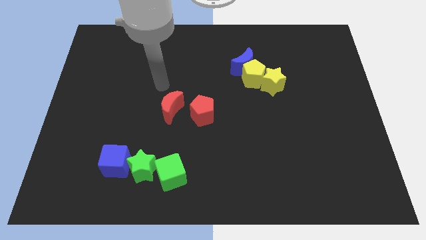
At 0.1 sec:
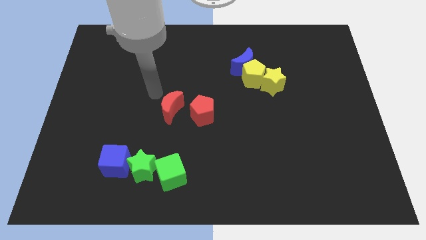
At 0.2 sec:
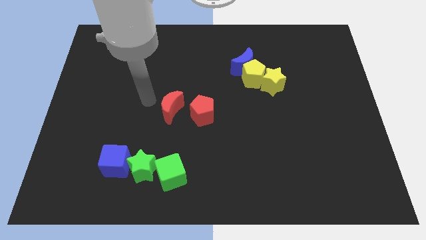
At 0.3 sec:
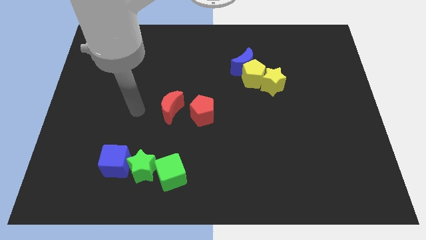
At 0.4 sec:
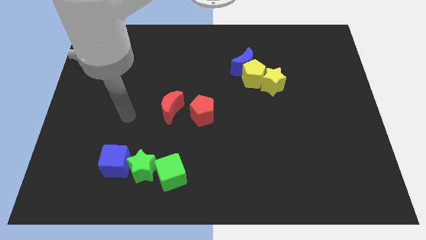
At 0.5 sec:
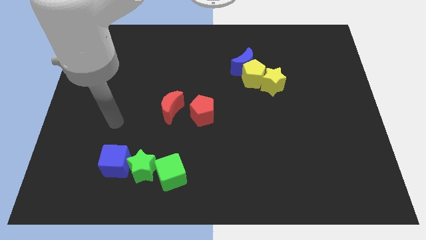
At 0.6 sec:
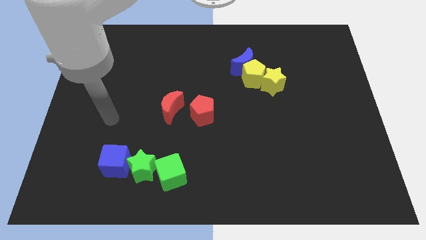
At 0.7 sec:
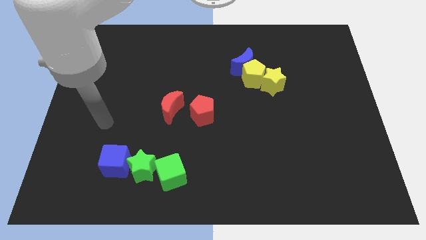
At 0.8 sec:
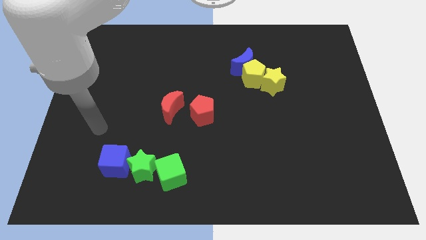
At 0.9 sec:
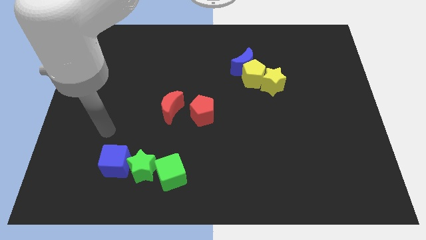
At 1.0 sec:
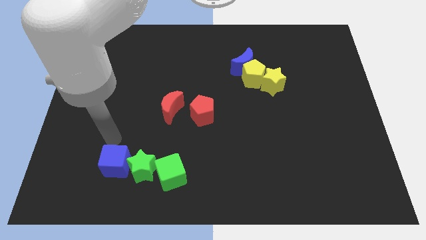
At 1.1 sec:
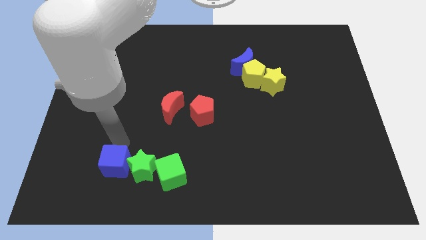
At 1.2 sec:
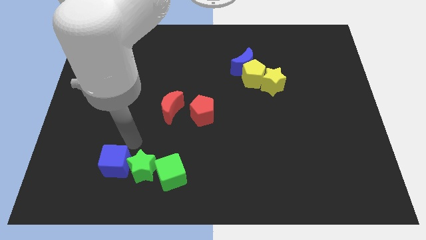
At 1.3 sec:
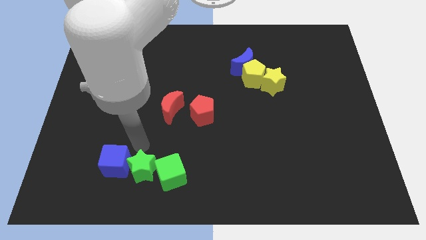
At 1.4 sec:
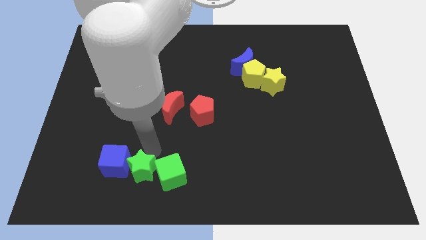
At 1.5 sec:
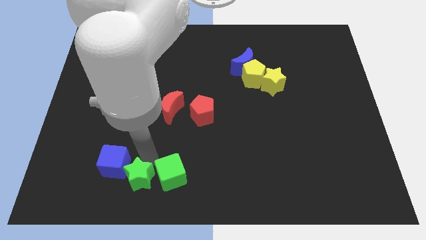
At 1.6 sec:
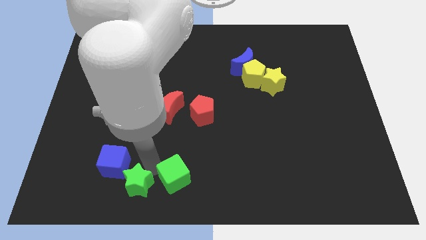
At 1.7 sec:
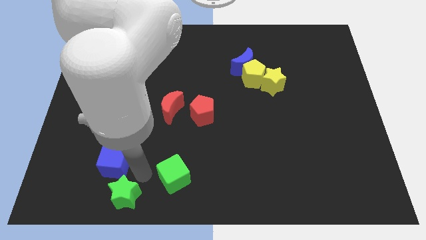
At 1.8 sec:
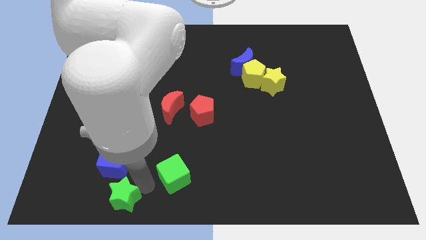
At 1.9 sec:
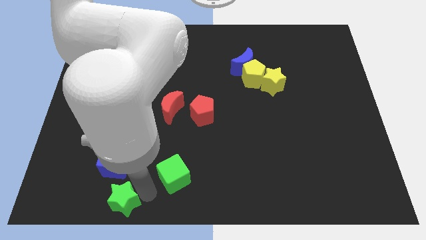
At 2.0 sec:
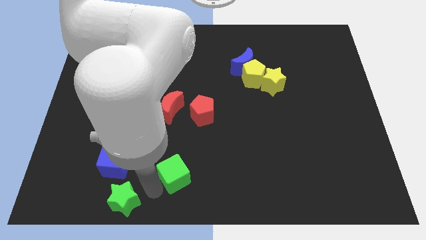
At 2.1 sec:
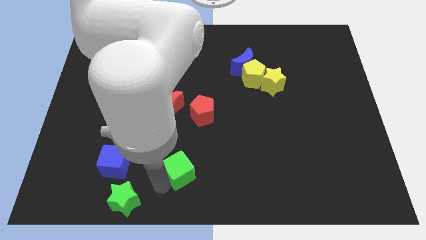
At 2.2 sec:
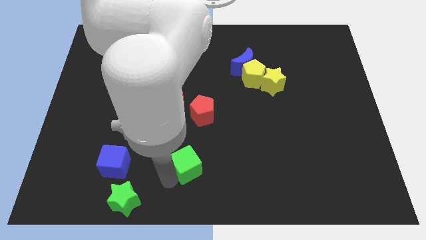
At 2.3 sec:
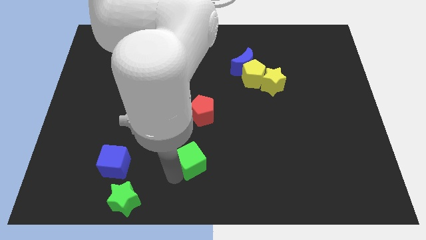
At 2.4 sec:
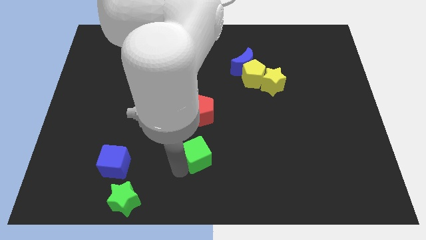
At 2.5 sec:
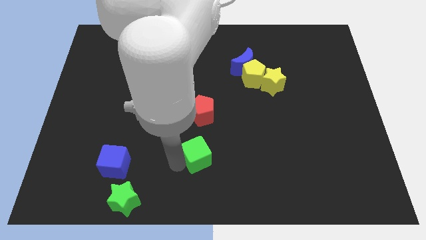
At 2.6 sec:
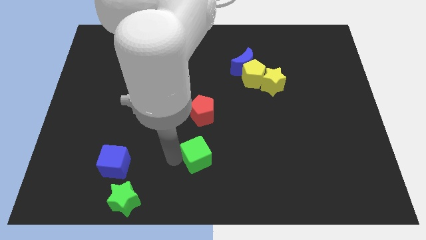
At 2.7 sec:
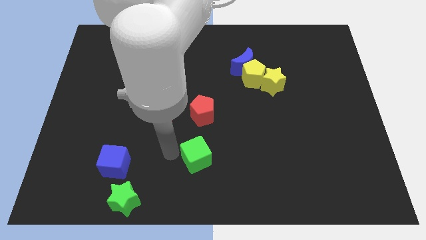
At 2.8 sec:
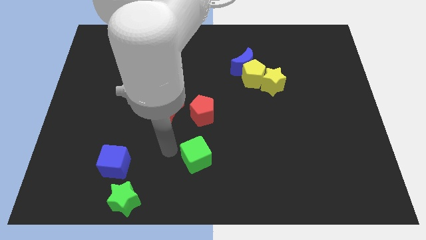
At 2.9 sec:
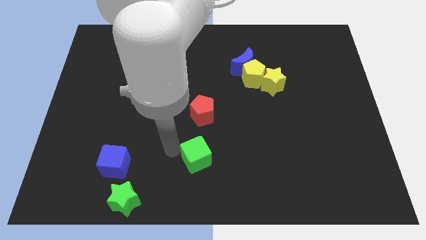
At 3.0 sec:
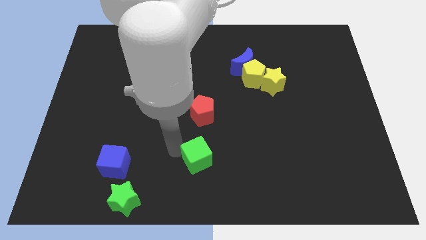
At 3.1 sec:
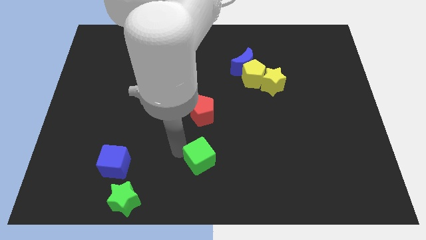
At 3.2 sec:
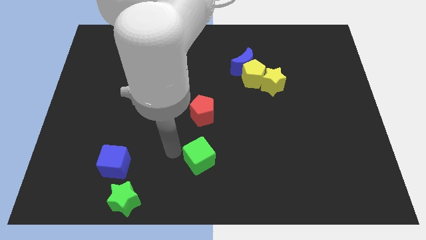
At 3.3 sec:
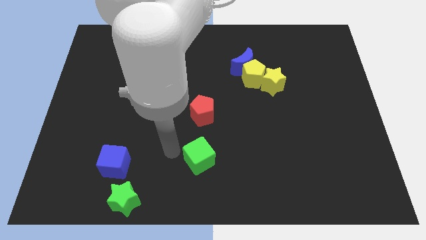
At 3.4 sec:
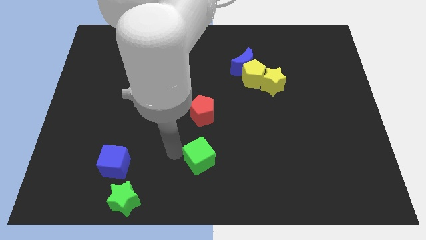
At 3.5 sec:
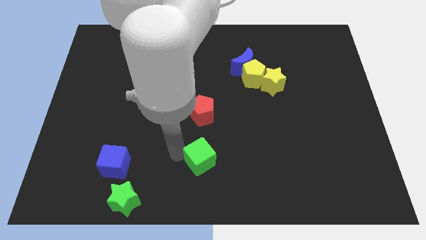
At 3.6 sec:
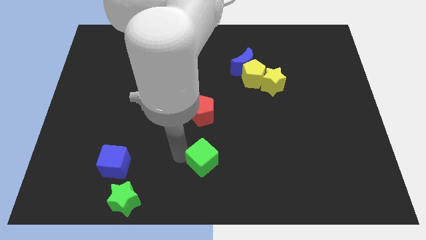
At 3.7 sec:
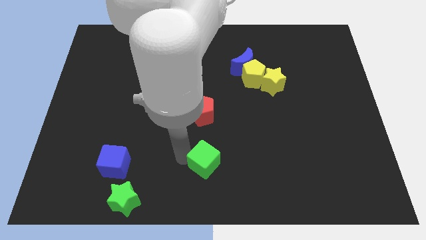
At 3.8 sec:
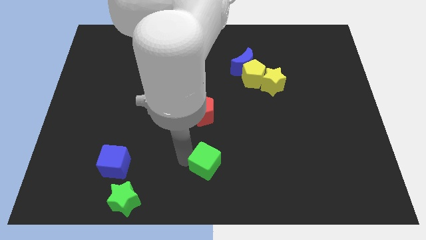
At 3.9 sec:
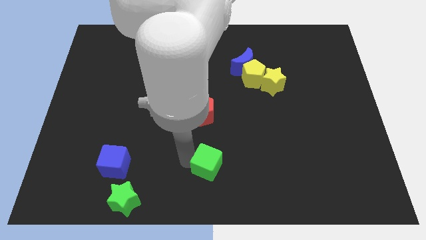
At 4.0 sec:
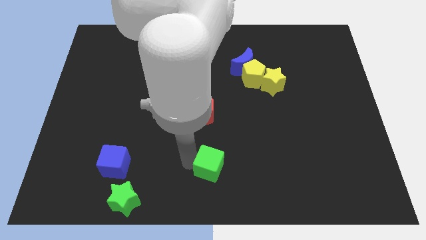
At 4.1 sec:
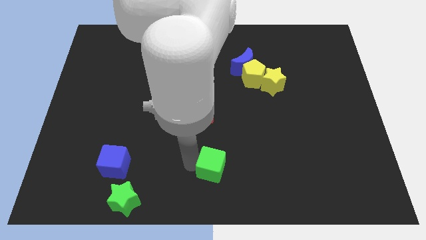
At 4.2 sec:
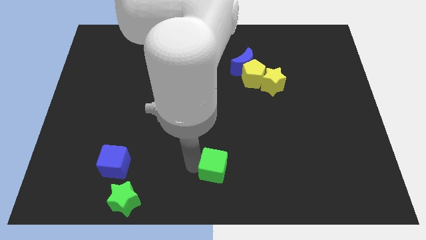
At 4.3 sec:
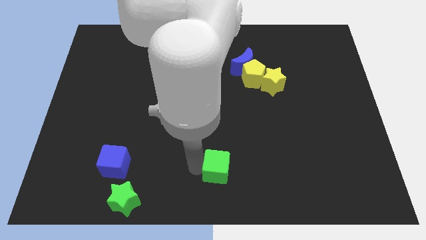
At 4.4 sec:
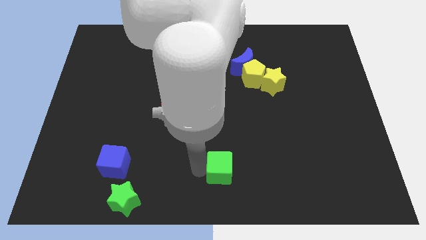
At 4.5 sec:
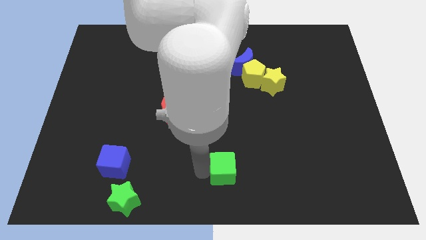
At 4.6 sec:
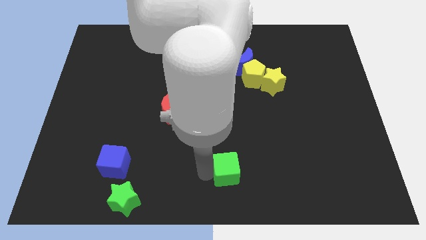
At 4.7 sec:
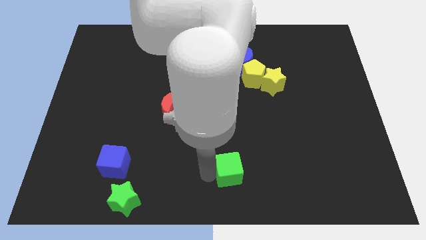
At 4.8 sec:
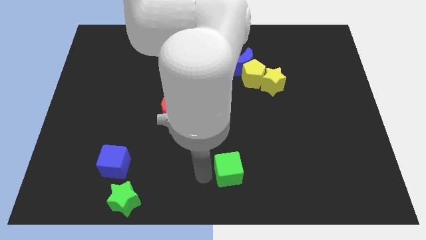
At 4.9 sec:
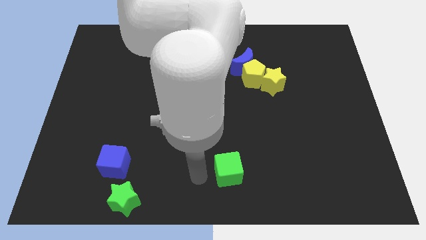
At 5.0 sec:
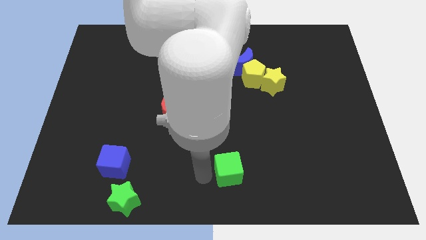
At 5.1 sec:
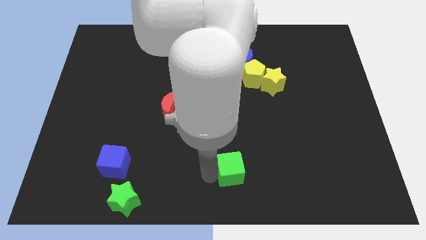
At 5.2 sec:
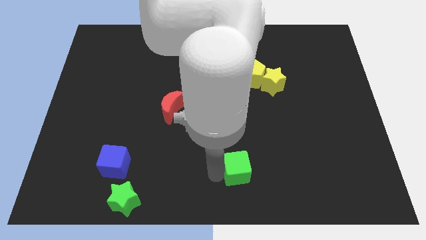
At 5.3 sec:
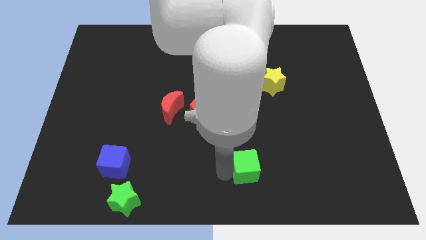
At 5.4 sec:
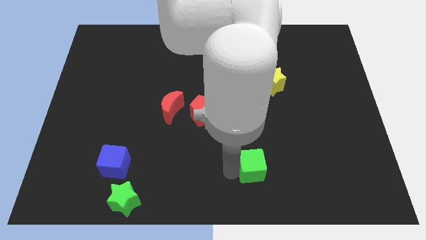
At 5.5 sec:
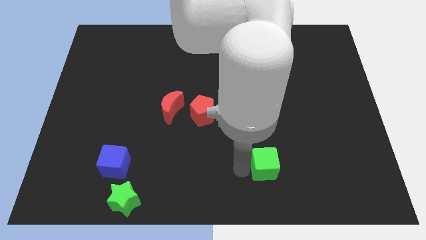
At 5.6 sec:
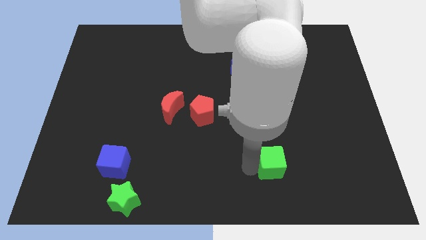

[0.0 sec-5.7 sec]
slide the green cube to the right

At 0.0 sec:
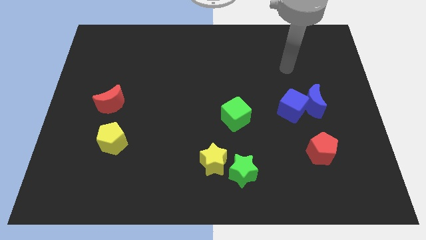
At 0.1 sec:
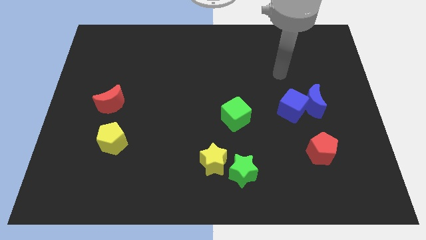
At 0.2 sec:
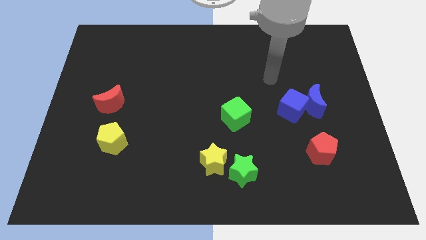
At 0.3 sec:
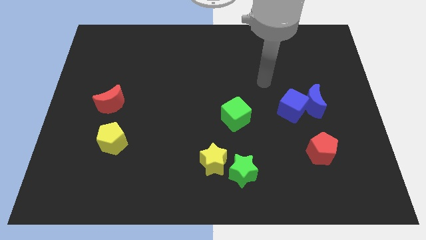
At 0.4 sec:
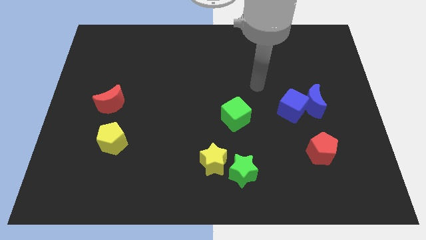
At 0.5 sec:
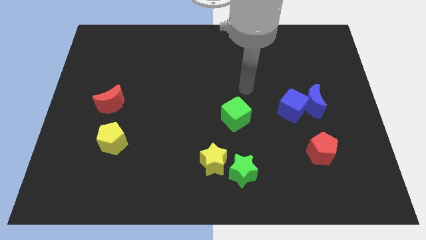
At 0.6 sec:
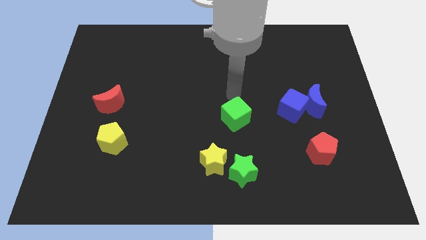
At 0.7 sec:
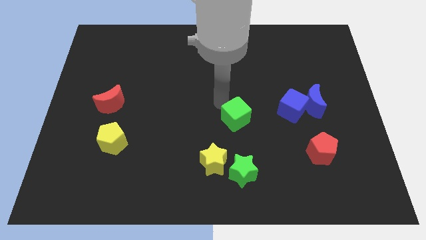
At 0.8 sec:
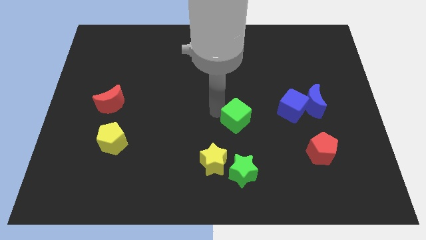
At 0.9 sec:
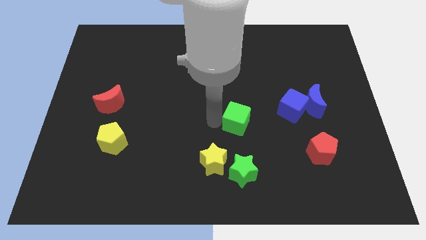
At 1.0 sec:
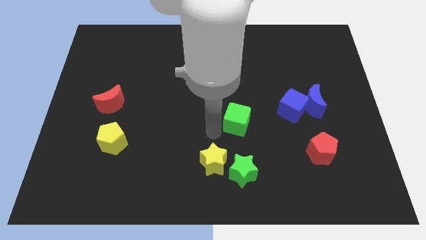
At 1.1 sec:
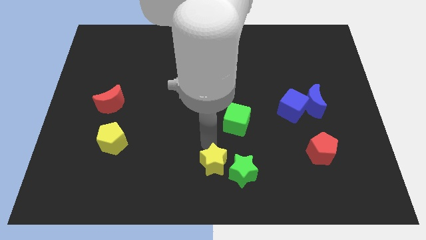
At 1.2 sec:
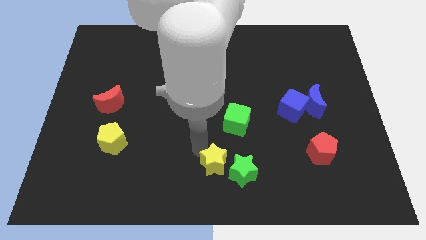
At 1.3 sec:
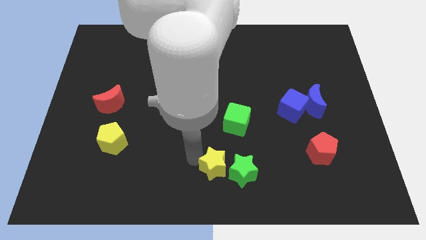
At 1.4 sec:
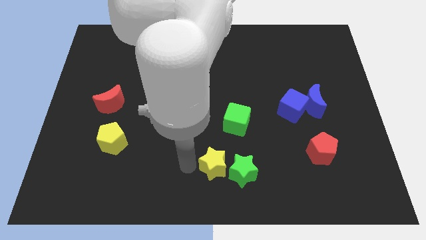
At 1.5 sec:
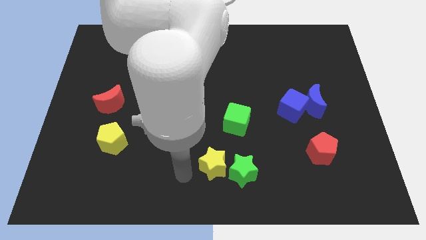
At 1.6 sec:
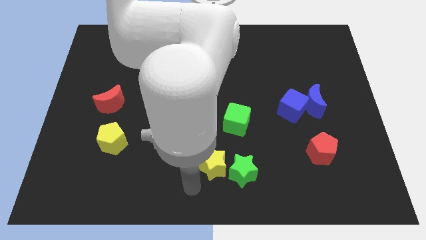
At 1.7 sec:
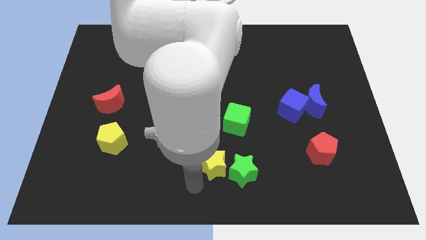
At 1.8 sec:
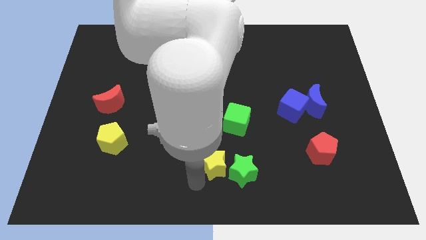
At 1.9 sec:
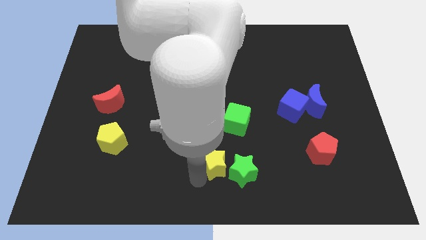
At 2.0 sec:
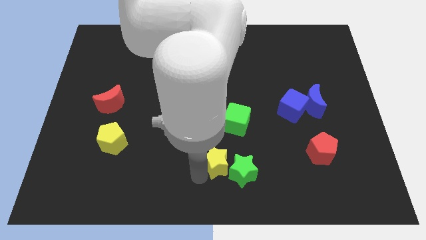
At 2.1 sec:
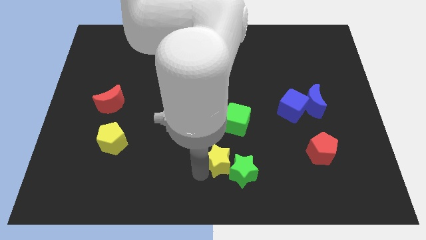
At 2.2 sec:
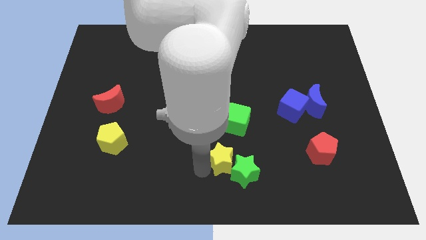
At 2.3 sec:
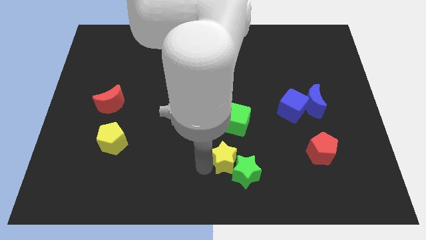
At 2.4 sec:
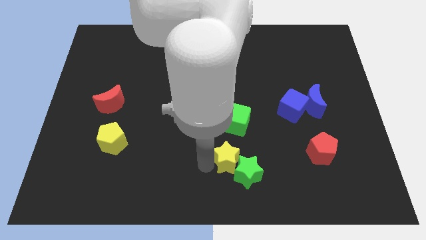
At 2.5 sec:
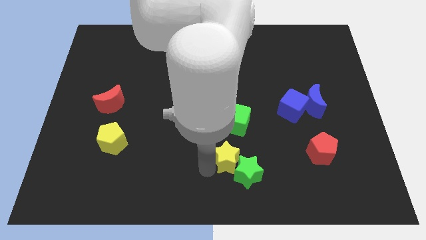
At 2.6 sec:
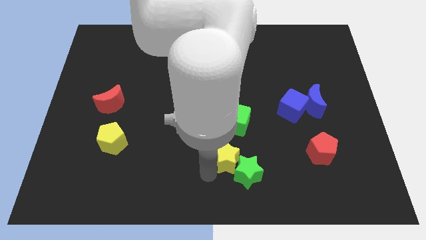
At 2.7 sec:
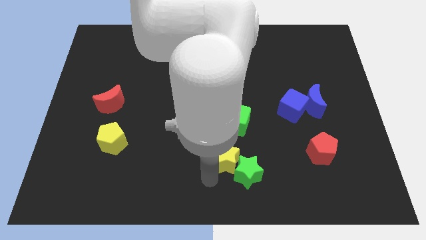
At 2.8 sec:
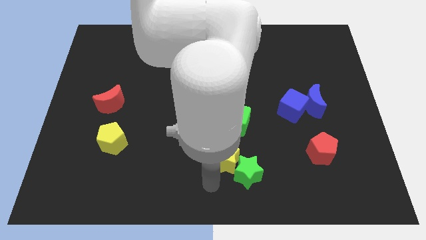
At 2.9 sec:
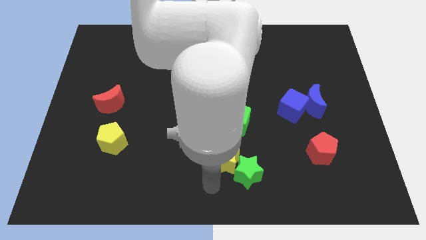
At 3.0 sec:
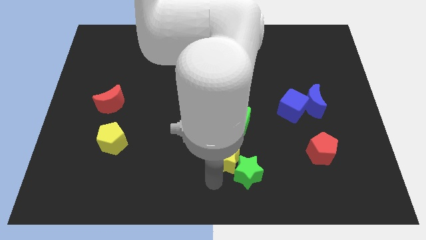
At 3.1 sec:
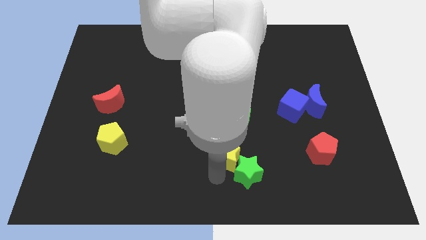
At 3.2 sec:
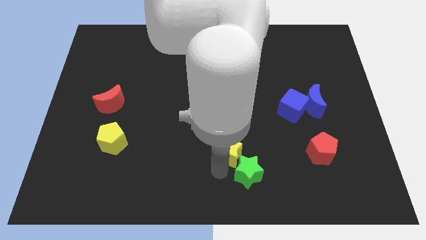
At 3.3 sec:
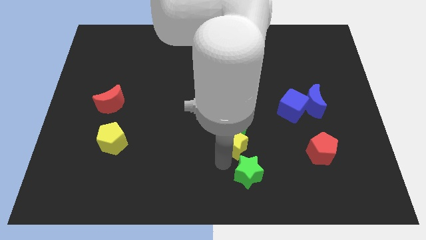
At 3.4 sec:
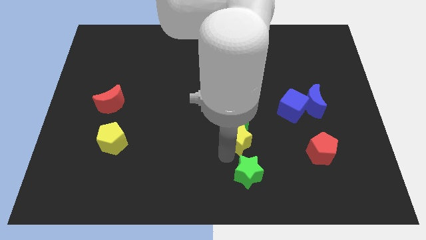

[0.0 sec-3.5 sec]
move the yellow star up and then right a little
